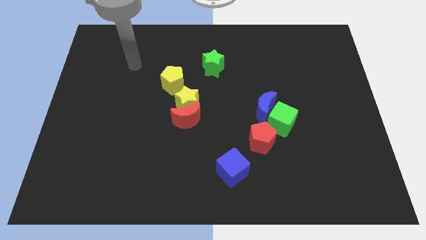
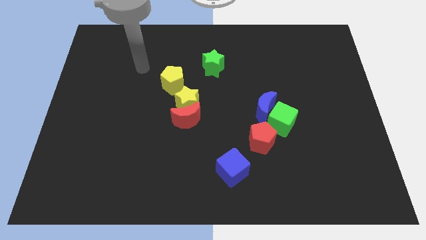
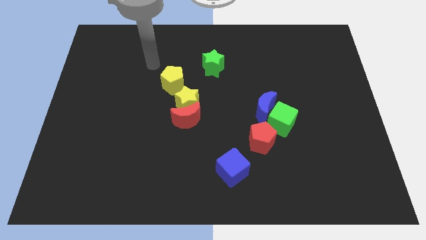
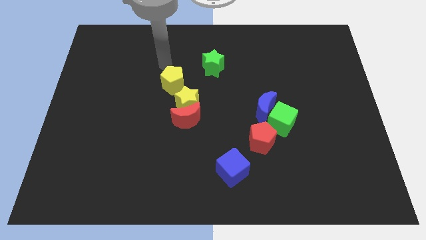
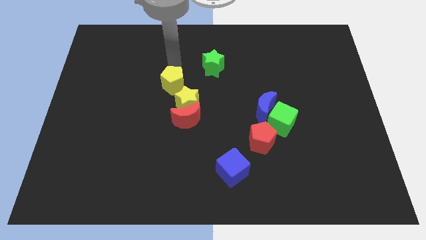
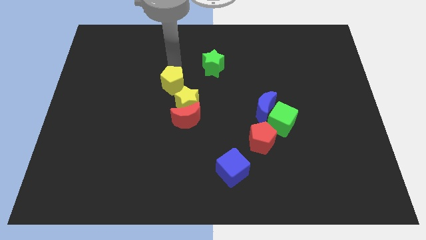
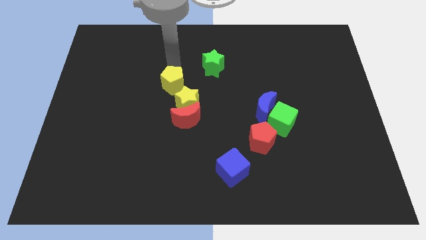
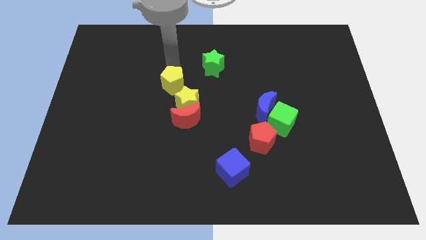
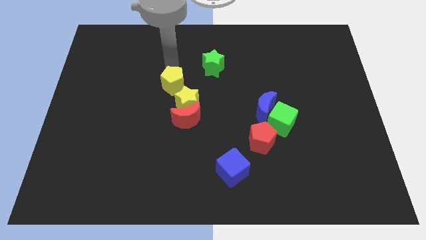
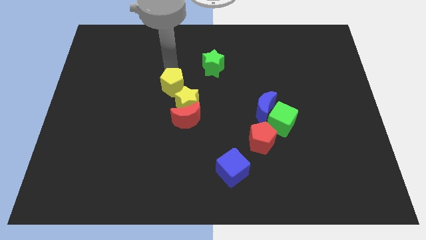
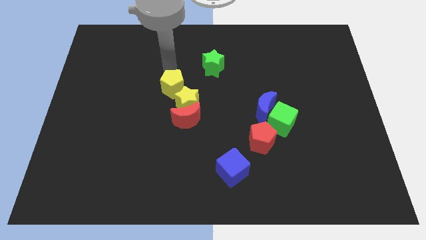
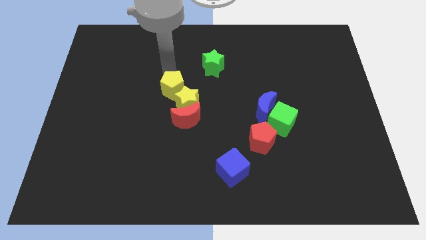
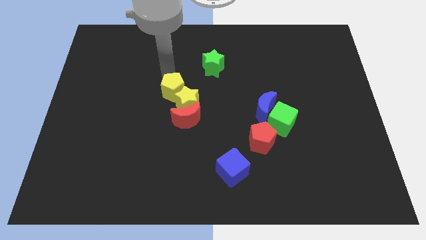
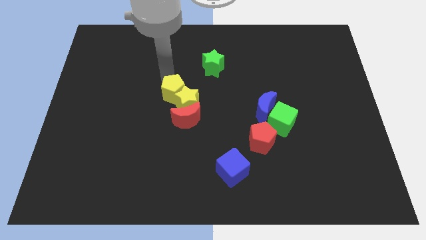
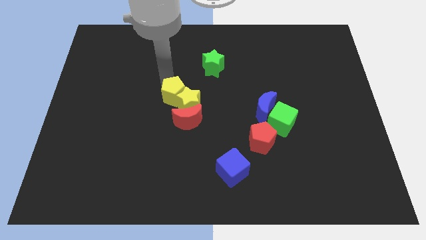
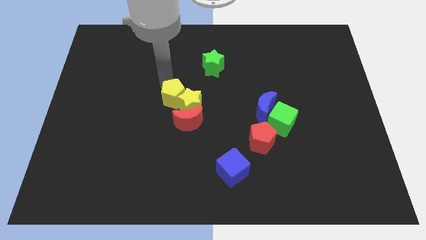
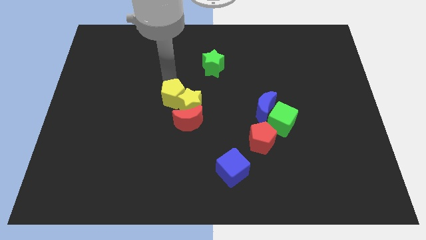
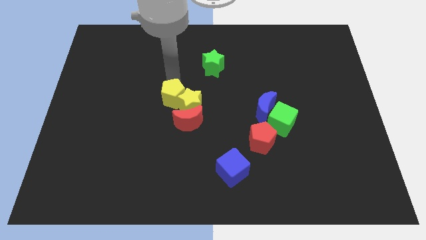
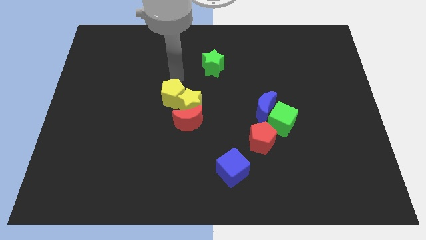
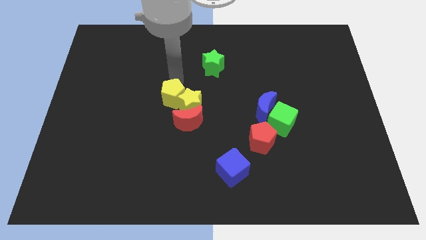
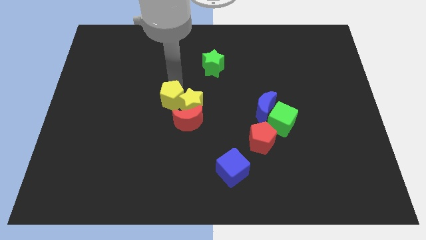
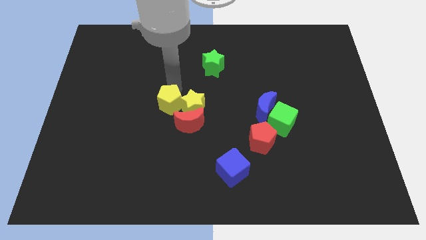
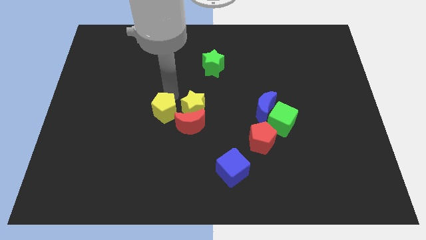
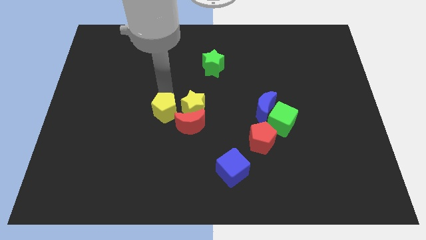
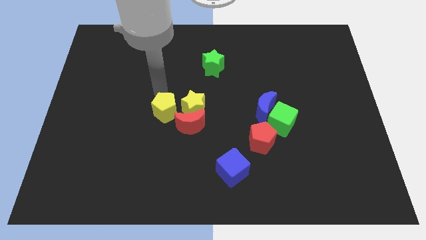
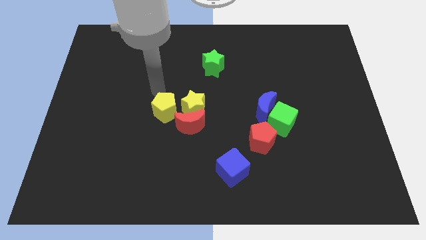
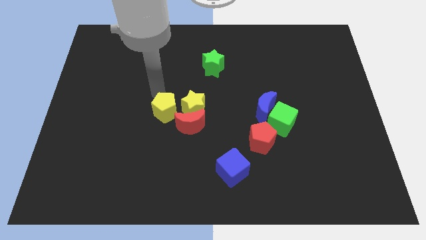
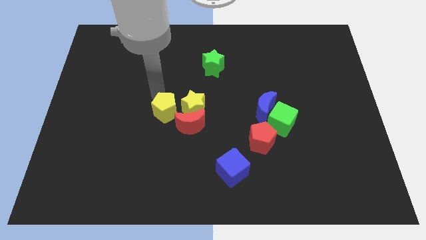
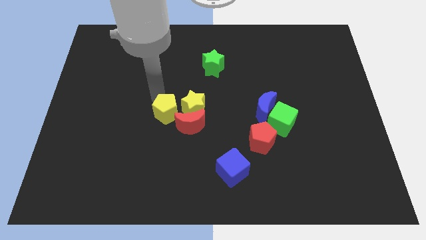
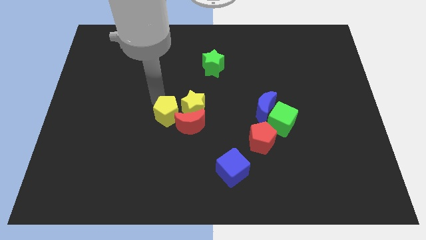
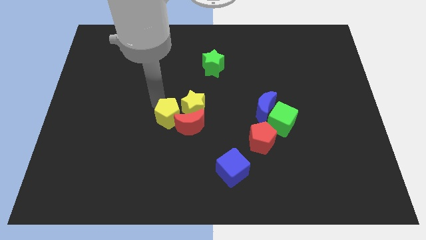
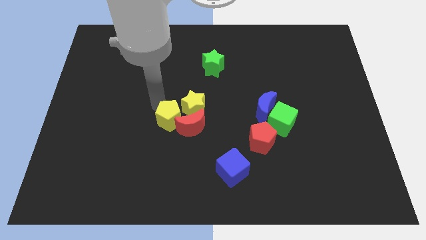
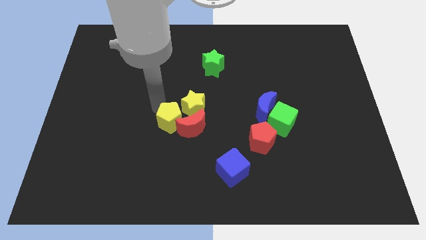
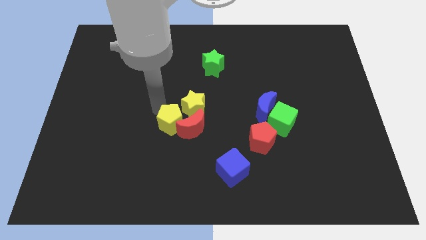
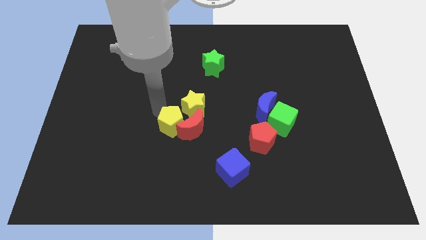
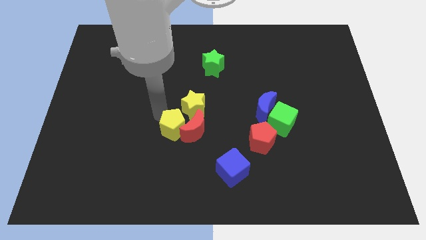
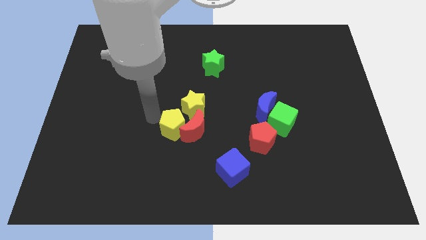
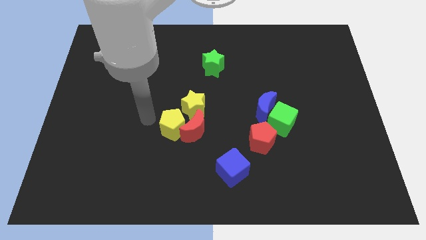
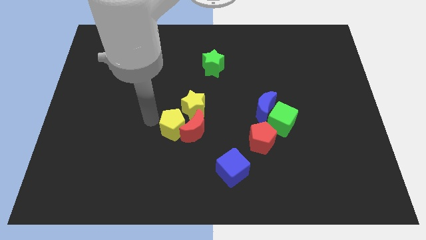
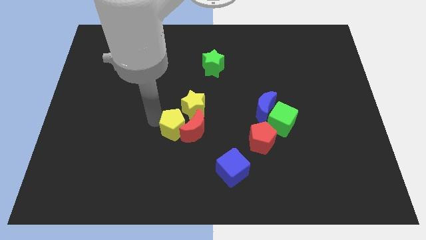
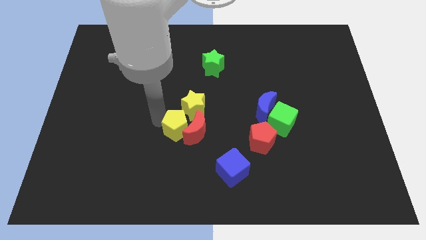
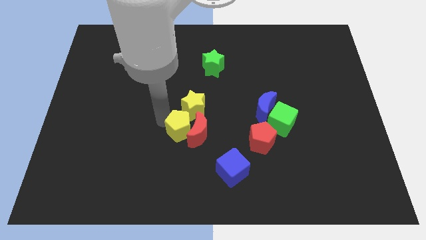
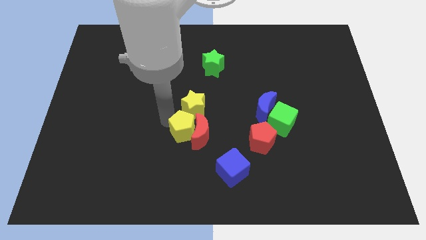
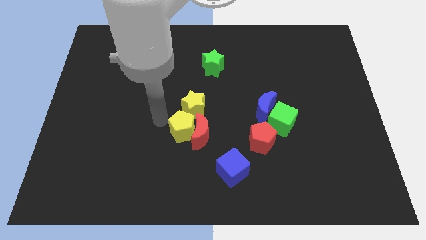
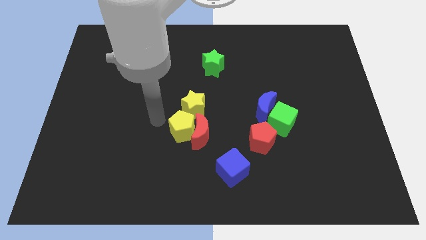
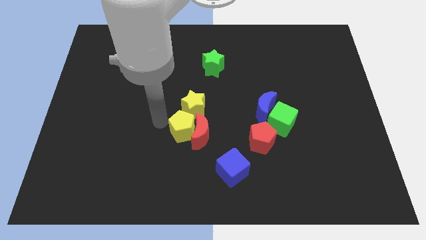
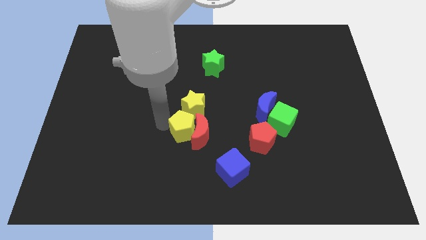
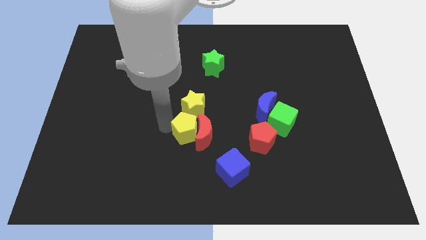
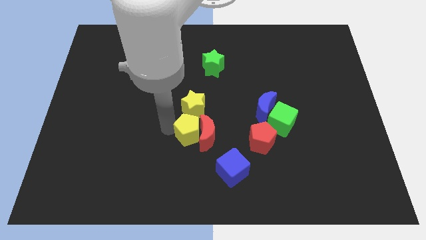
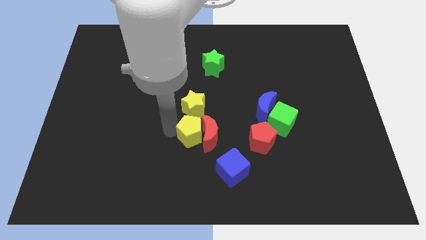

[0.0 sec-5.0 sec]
move the yellow pentagon left of the red pentagon

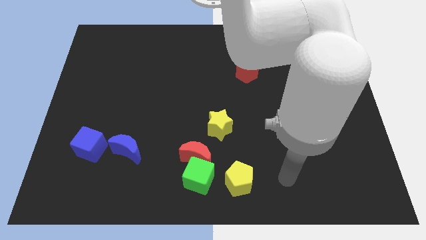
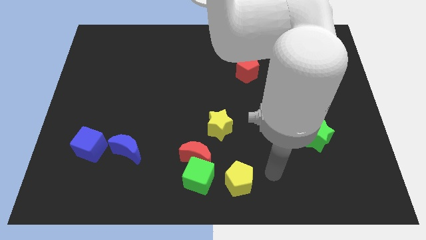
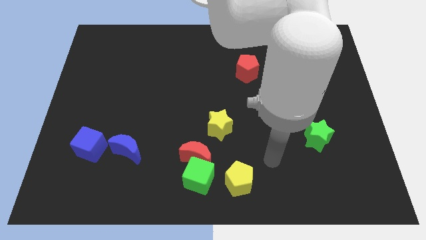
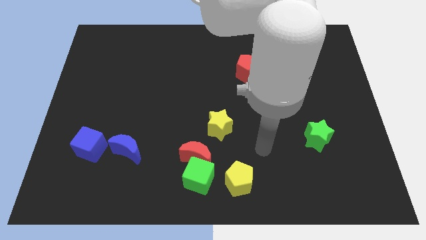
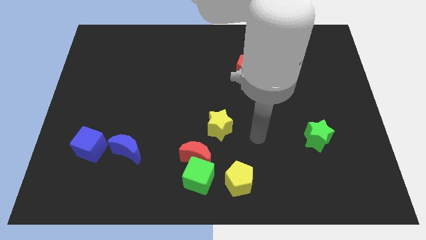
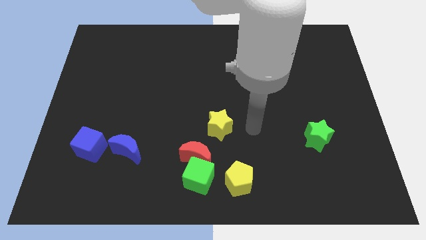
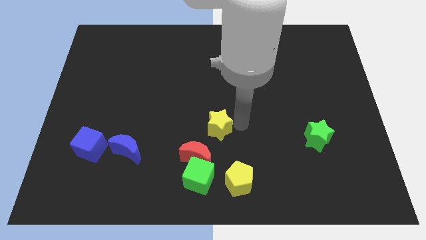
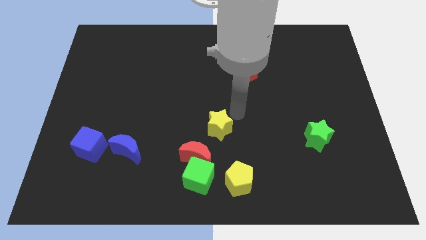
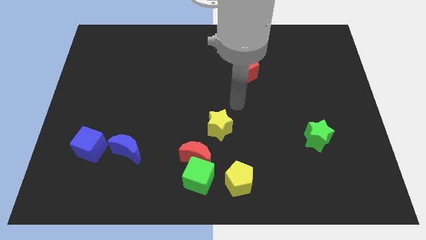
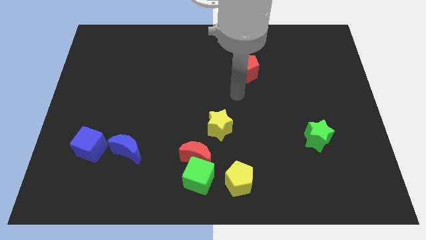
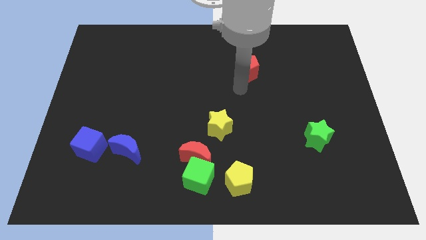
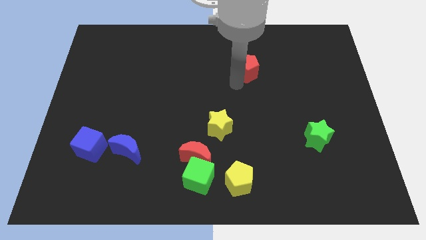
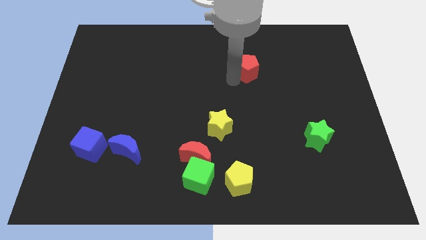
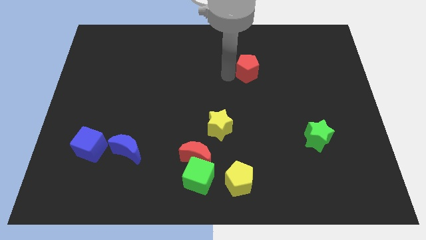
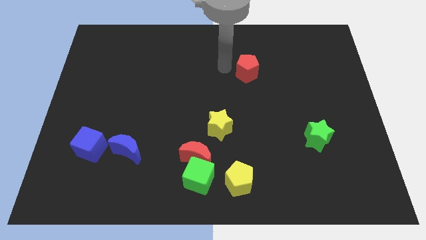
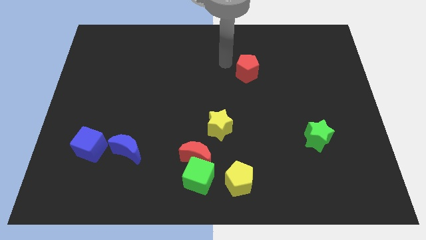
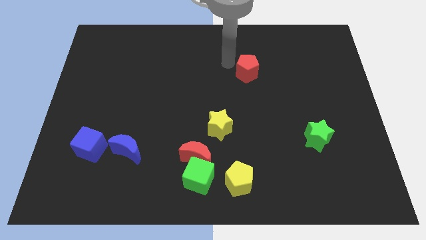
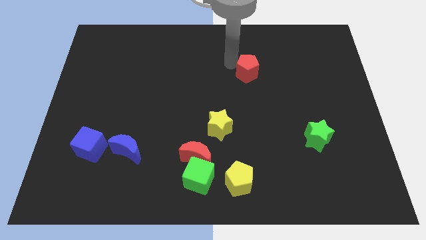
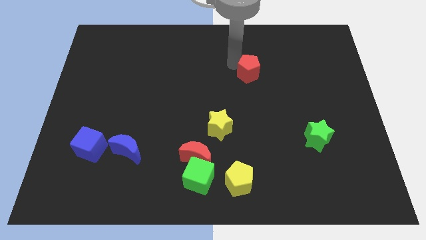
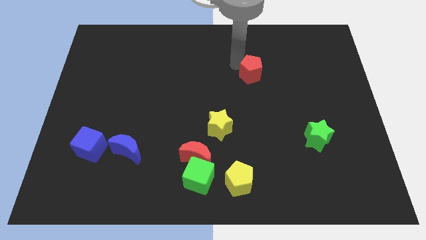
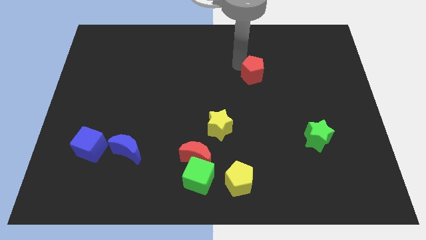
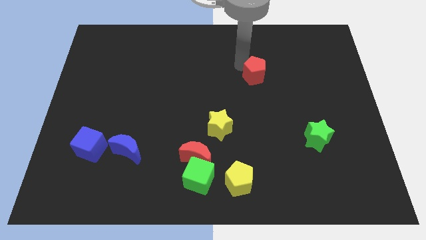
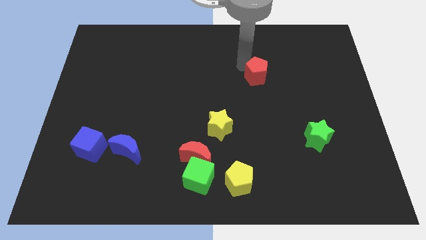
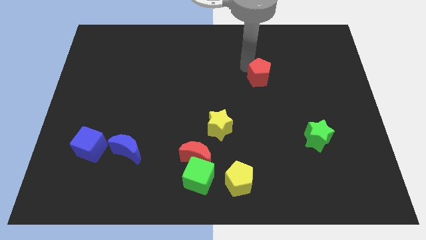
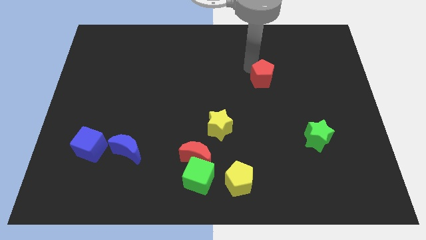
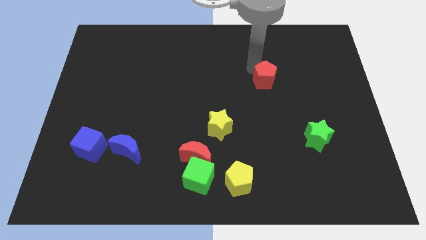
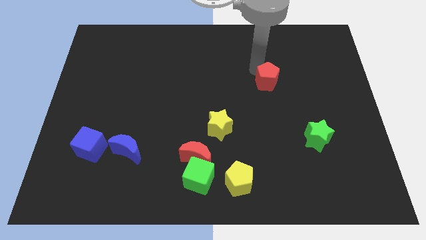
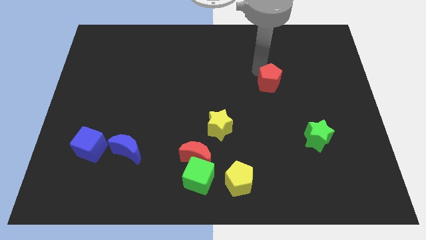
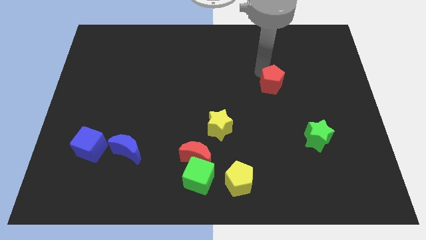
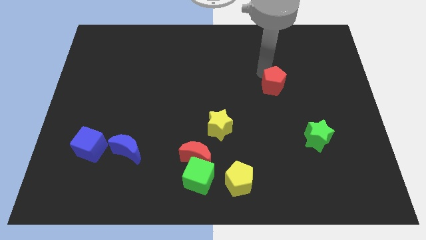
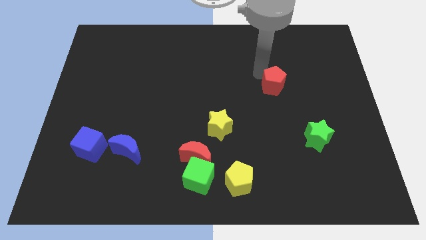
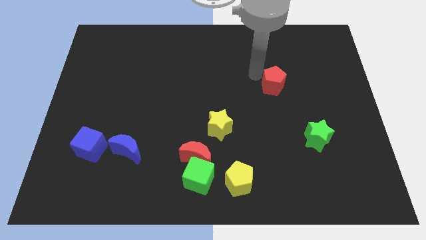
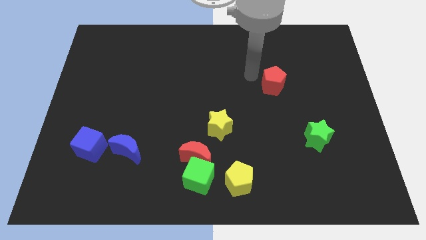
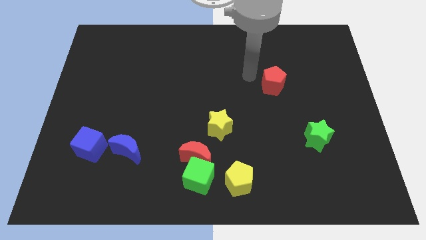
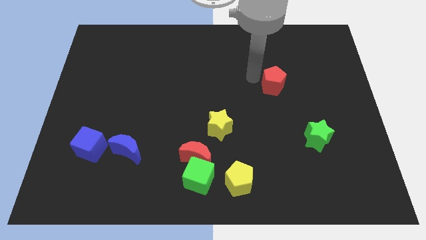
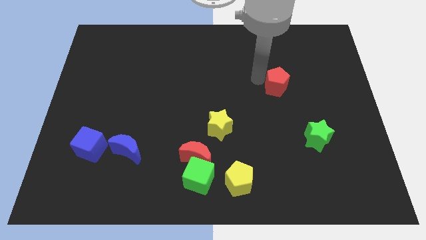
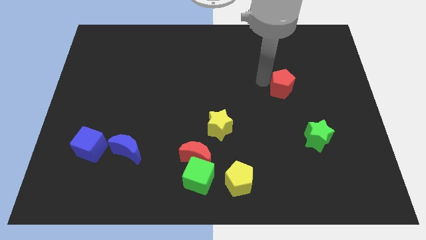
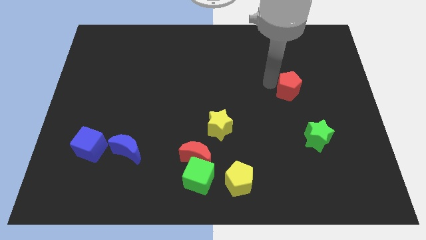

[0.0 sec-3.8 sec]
slide the red pentagon to the top of the green star
